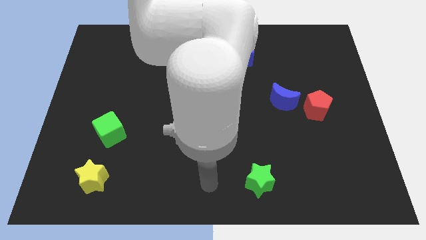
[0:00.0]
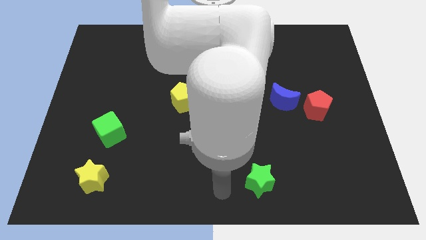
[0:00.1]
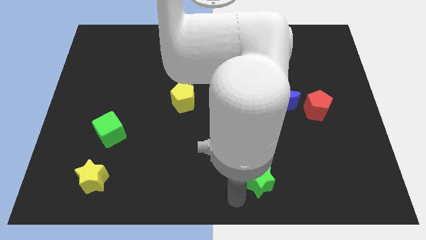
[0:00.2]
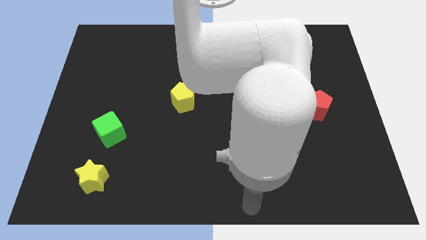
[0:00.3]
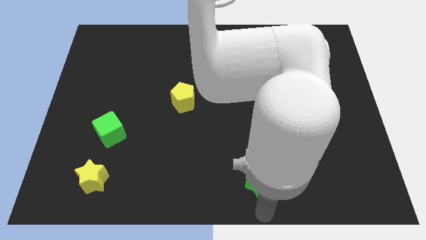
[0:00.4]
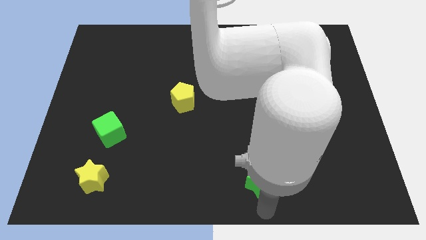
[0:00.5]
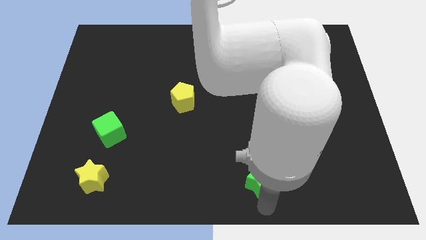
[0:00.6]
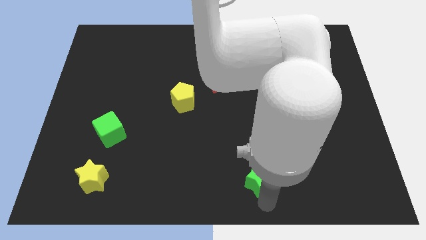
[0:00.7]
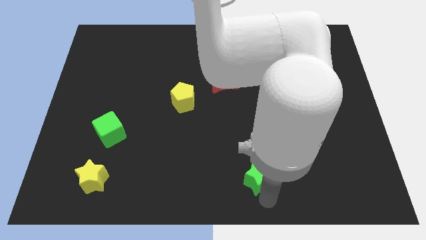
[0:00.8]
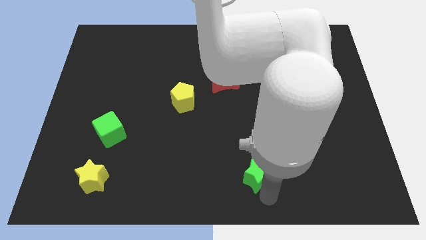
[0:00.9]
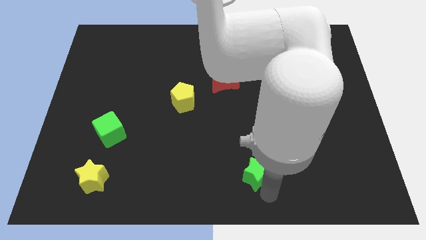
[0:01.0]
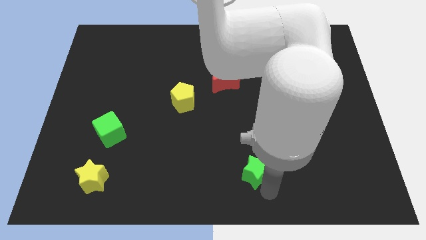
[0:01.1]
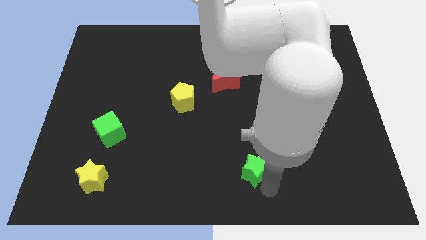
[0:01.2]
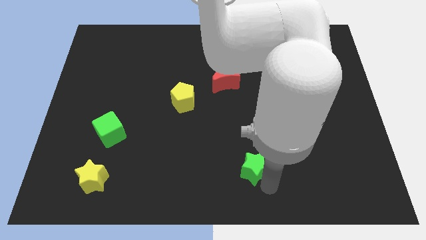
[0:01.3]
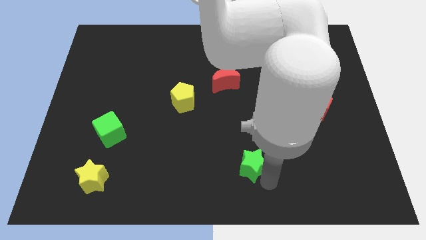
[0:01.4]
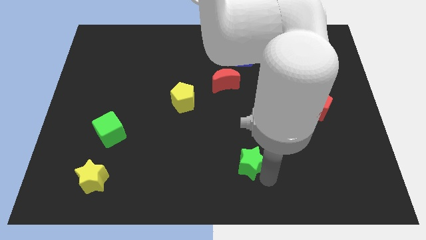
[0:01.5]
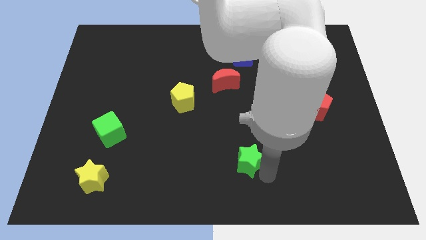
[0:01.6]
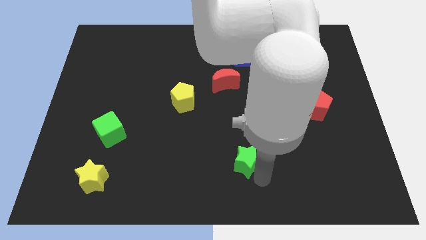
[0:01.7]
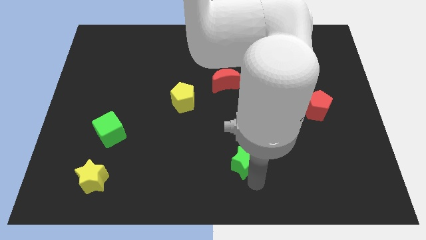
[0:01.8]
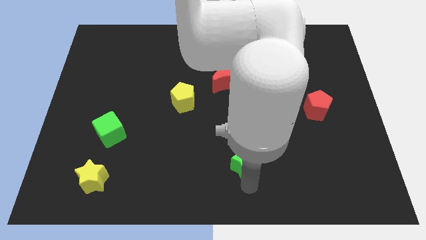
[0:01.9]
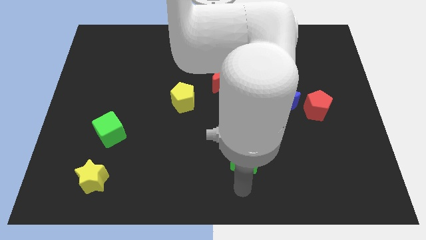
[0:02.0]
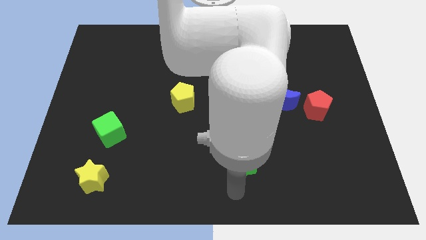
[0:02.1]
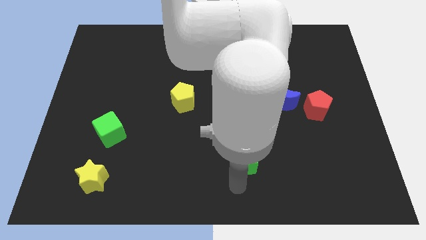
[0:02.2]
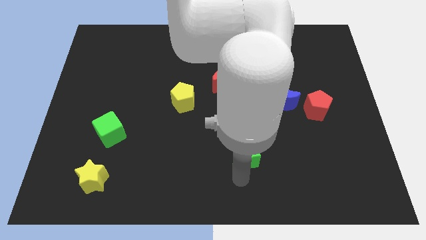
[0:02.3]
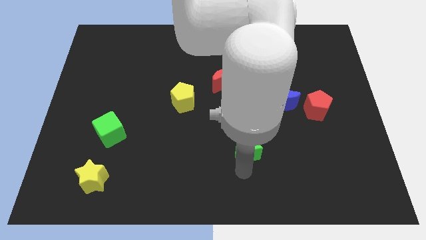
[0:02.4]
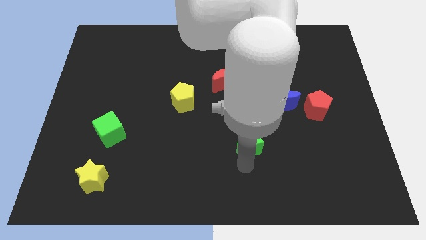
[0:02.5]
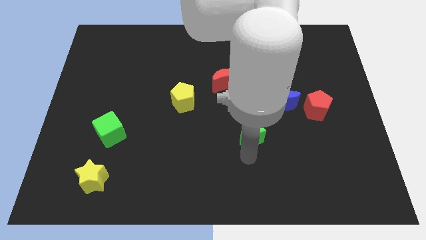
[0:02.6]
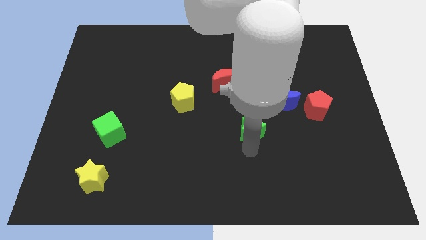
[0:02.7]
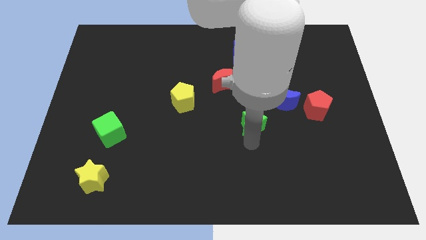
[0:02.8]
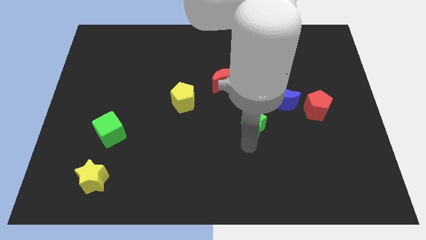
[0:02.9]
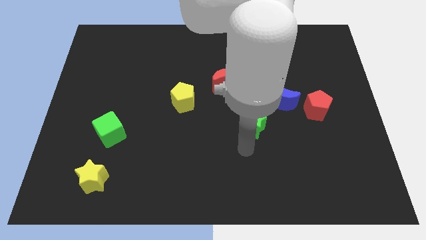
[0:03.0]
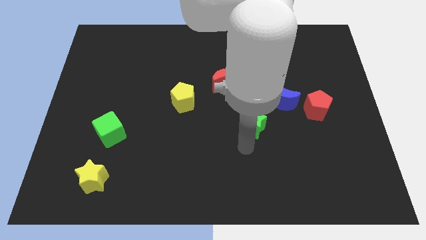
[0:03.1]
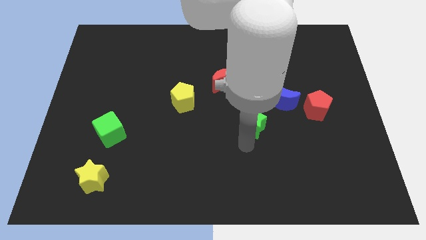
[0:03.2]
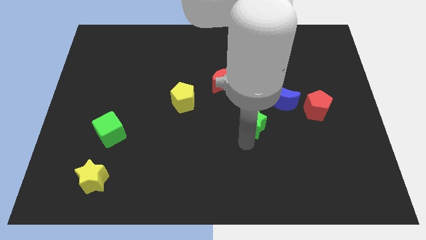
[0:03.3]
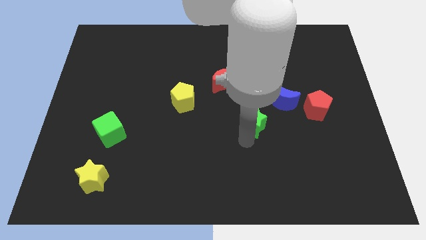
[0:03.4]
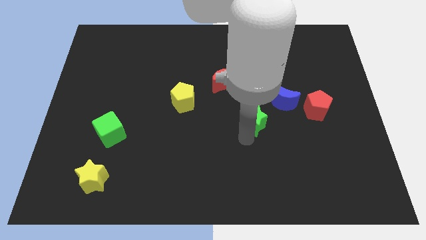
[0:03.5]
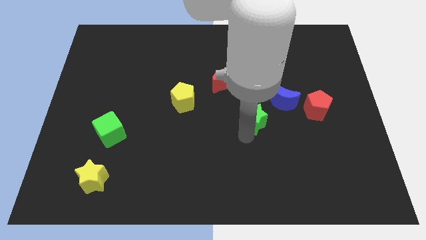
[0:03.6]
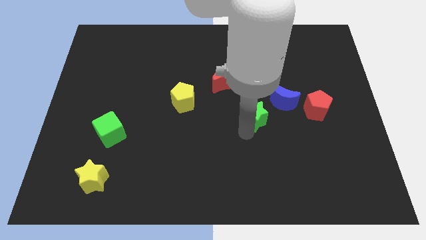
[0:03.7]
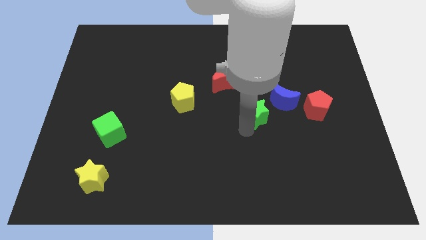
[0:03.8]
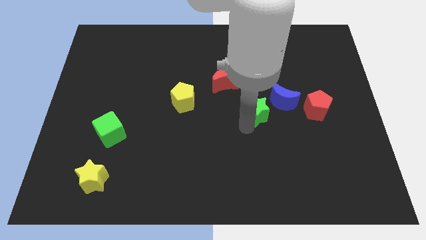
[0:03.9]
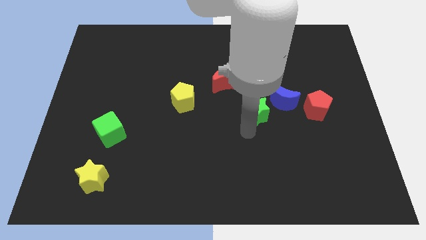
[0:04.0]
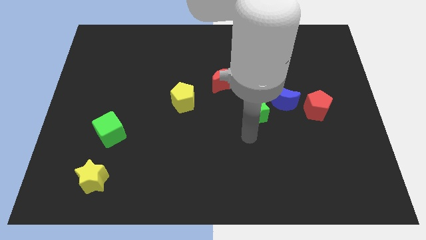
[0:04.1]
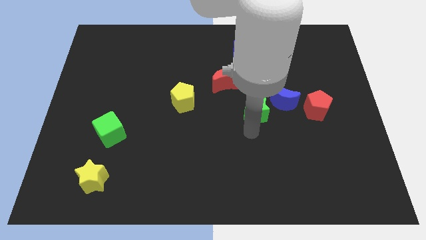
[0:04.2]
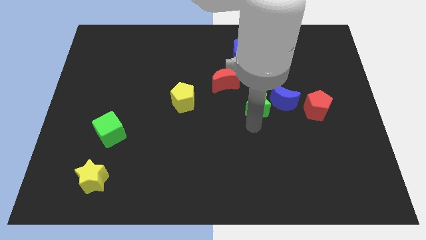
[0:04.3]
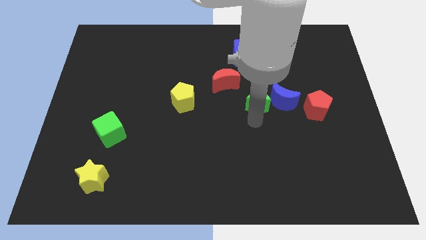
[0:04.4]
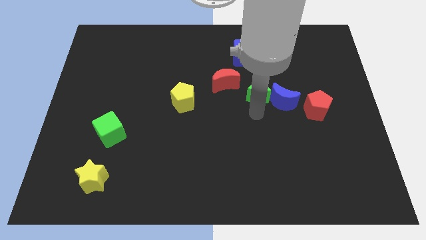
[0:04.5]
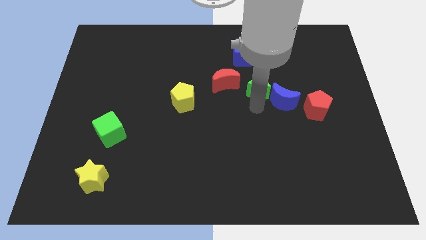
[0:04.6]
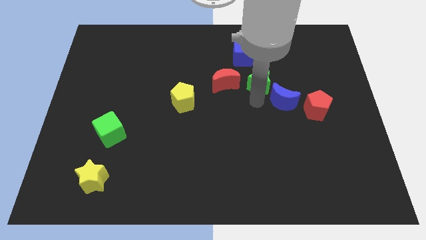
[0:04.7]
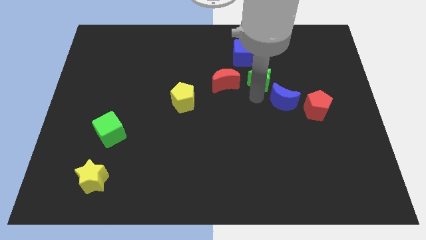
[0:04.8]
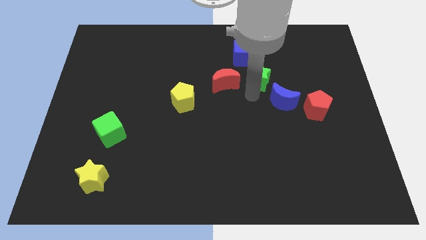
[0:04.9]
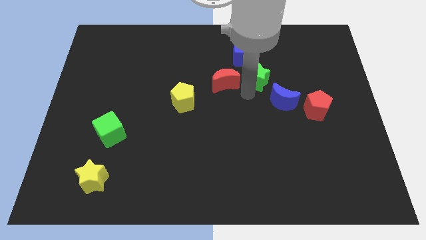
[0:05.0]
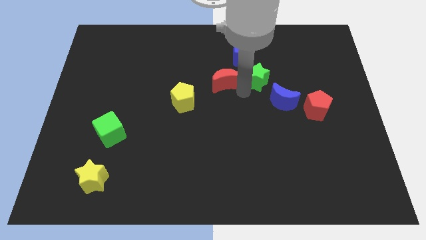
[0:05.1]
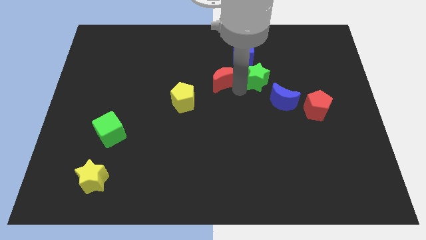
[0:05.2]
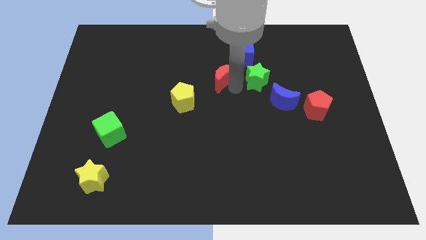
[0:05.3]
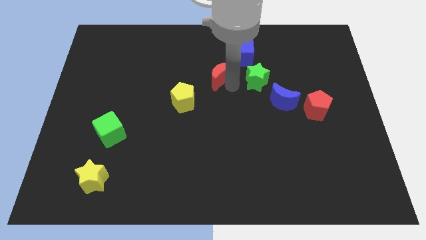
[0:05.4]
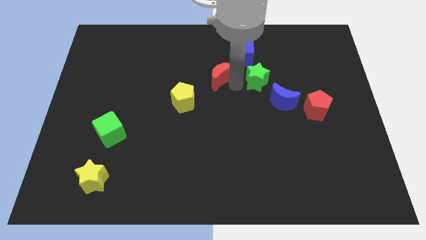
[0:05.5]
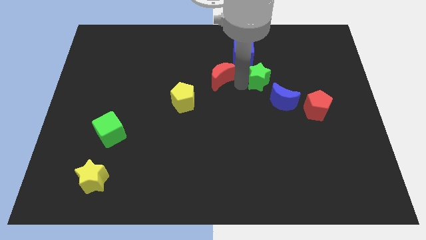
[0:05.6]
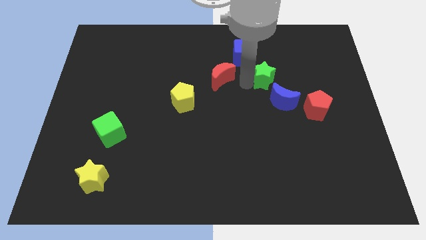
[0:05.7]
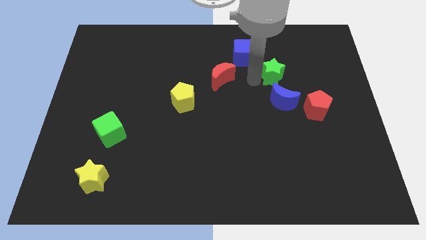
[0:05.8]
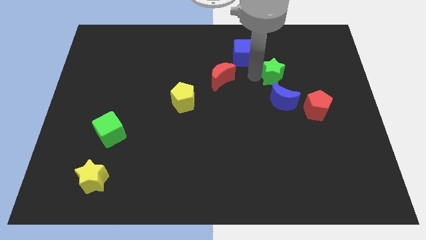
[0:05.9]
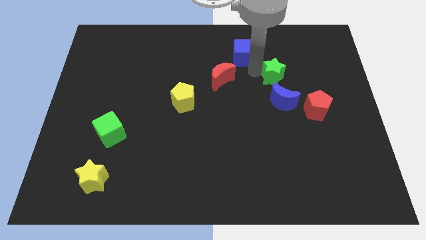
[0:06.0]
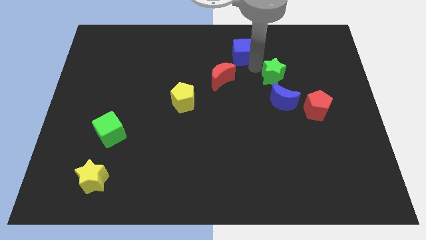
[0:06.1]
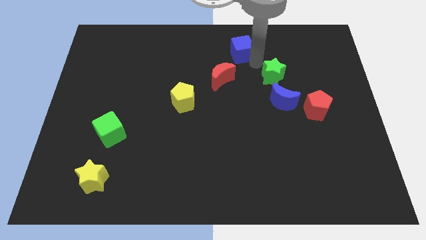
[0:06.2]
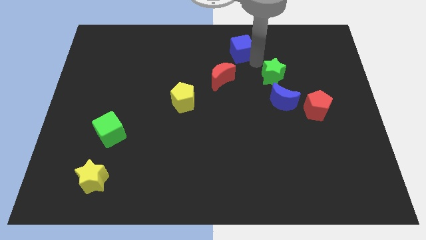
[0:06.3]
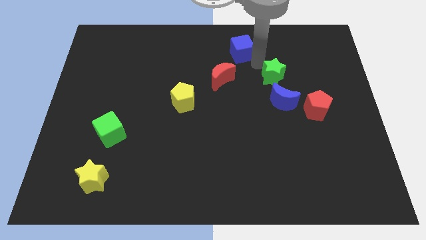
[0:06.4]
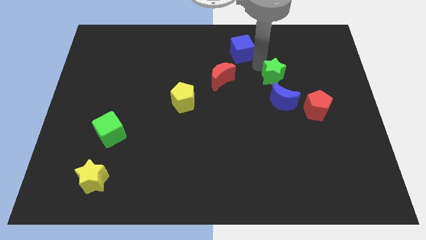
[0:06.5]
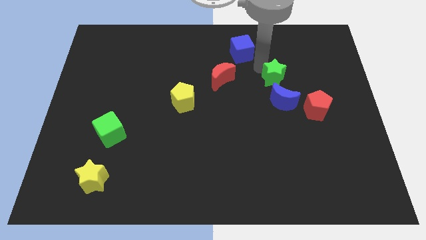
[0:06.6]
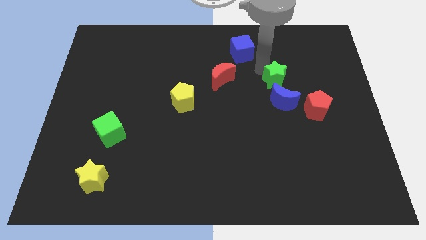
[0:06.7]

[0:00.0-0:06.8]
push the green star to the top left side of the red pentagon

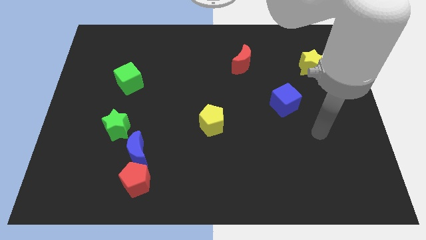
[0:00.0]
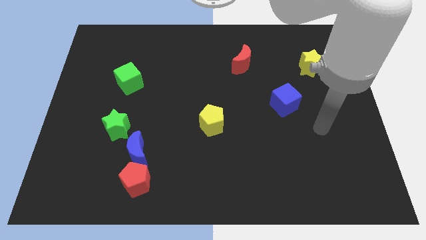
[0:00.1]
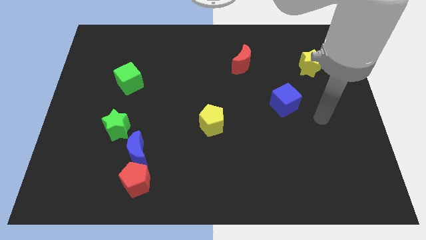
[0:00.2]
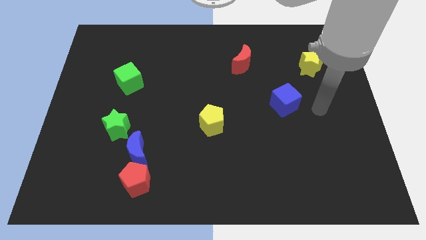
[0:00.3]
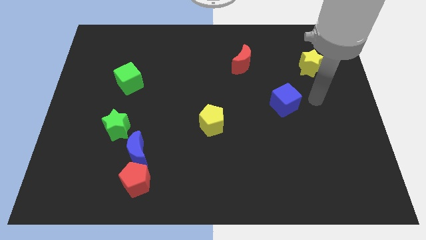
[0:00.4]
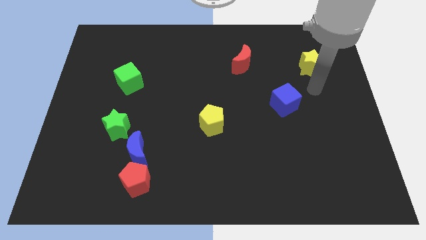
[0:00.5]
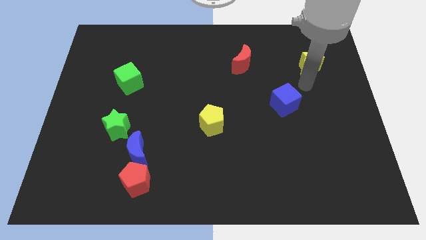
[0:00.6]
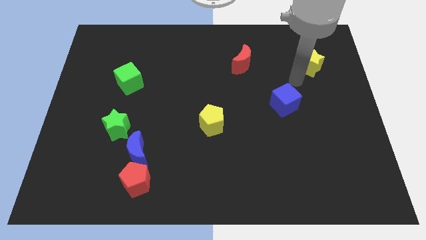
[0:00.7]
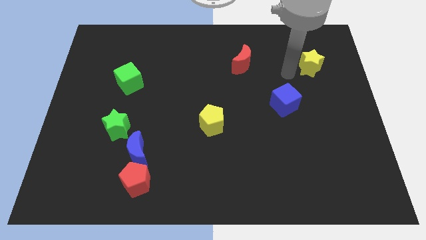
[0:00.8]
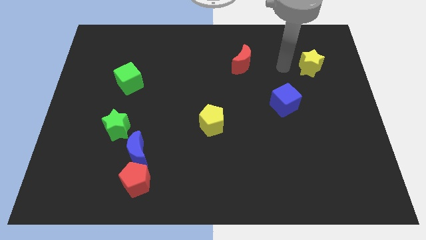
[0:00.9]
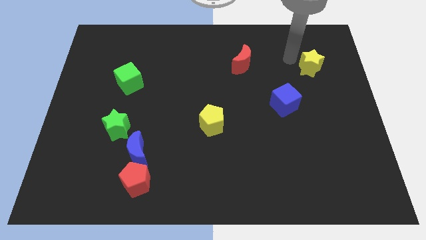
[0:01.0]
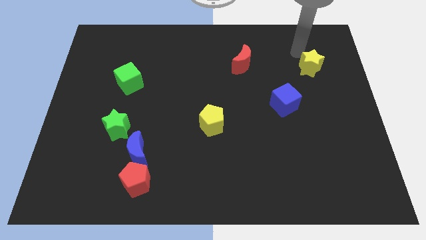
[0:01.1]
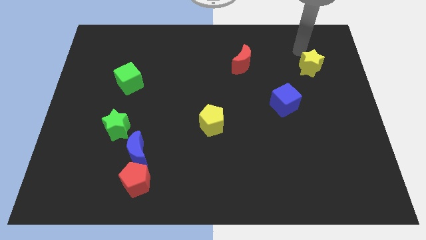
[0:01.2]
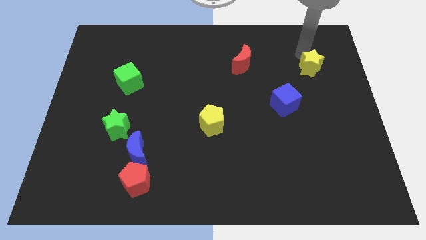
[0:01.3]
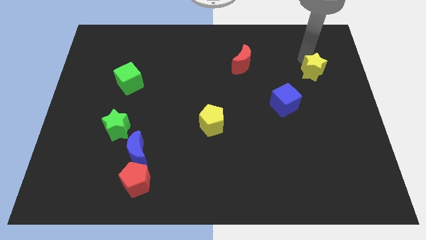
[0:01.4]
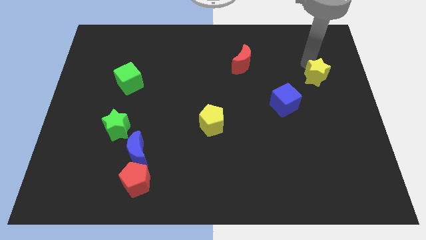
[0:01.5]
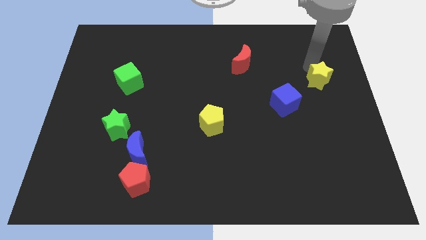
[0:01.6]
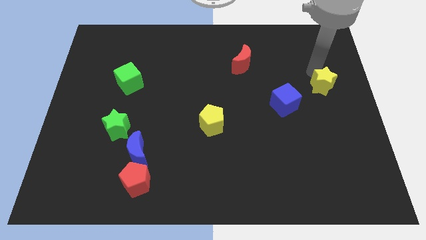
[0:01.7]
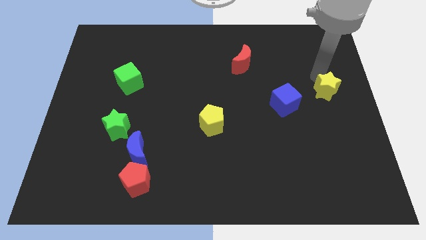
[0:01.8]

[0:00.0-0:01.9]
move the yellow star to the right side of the blue cube
